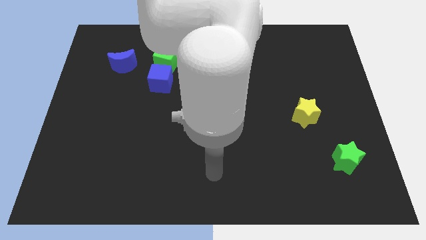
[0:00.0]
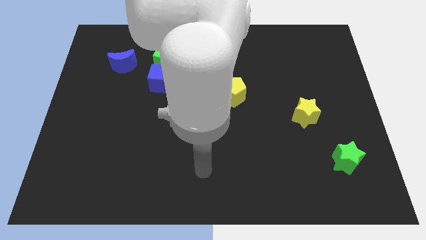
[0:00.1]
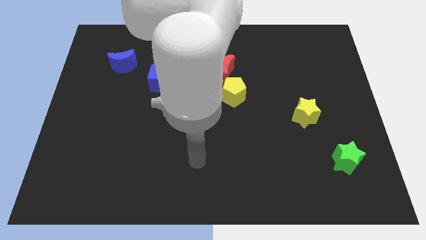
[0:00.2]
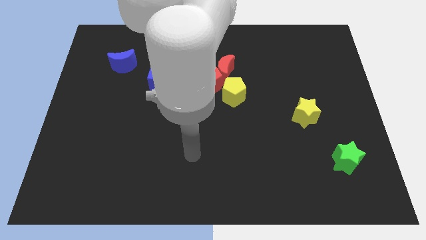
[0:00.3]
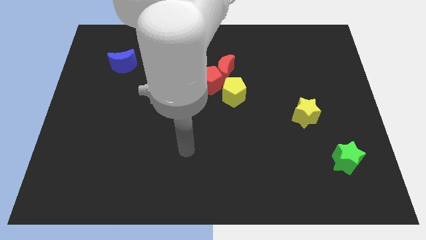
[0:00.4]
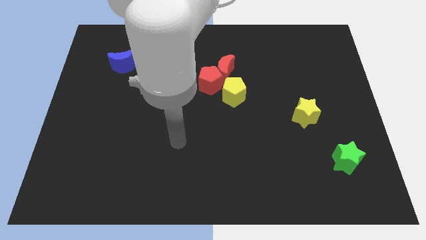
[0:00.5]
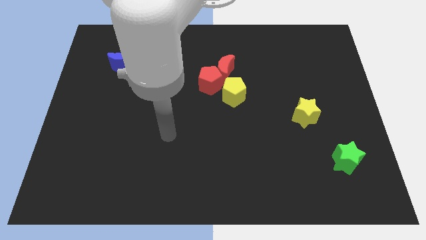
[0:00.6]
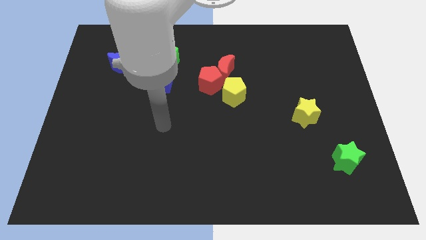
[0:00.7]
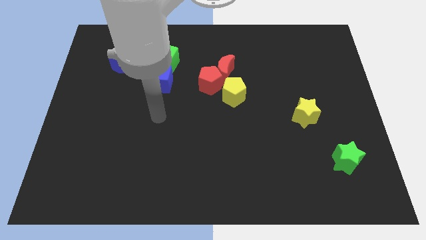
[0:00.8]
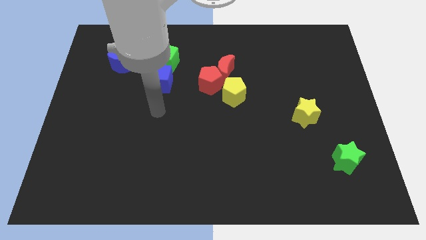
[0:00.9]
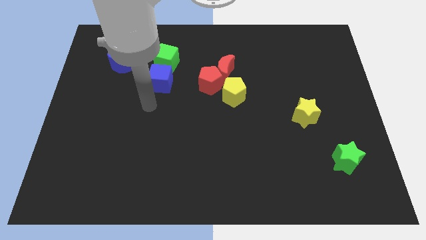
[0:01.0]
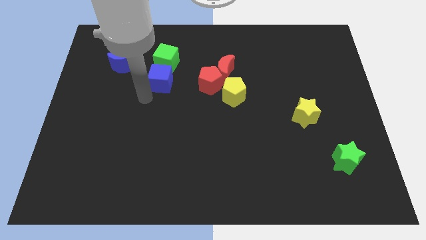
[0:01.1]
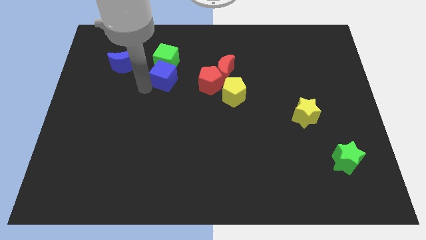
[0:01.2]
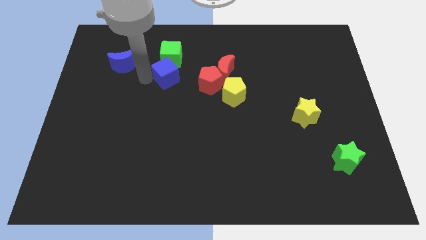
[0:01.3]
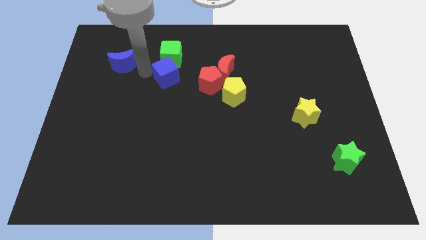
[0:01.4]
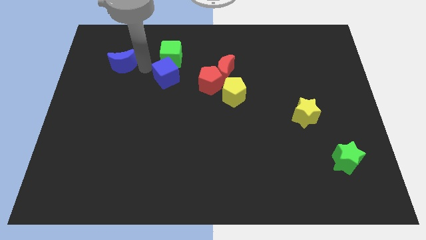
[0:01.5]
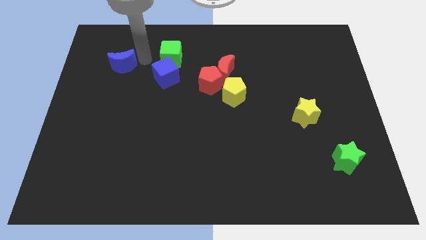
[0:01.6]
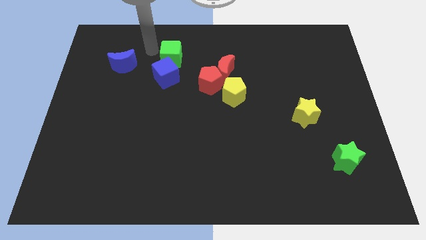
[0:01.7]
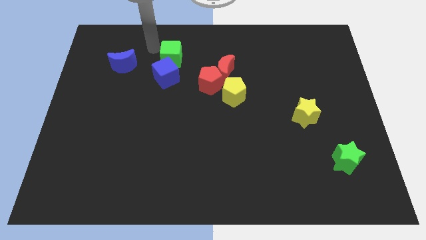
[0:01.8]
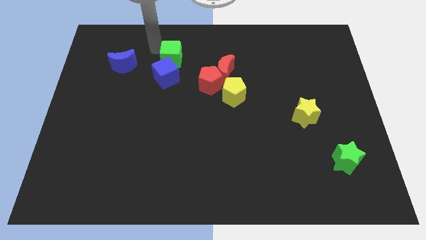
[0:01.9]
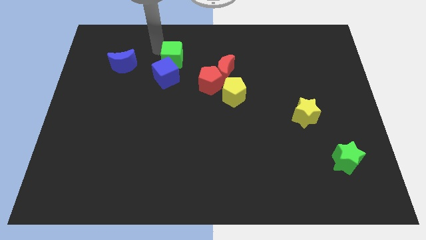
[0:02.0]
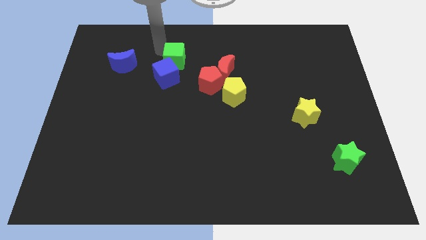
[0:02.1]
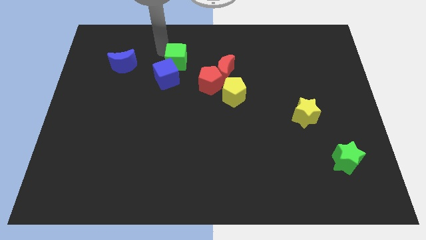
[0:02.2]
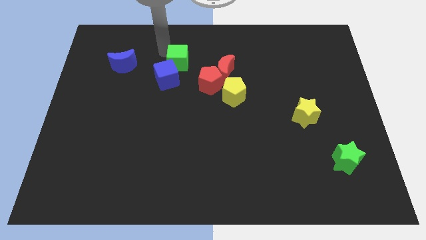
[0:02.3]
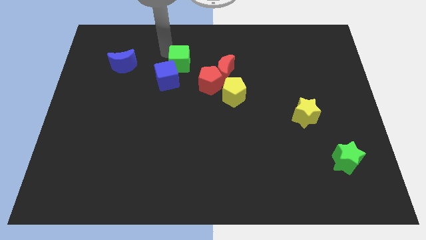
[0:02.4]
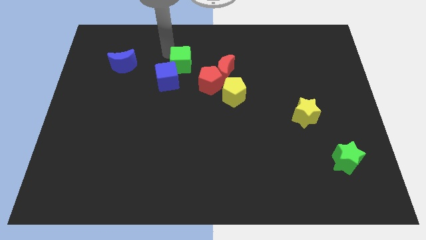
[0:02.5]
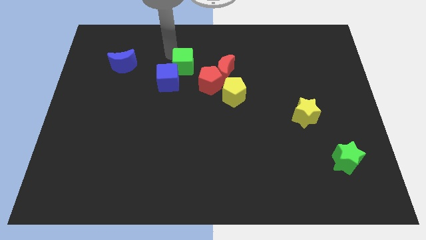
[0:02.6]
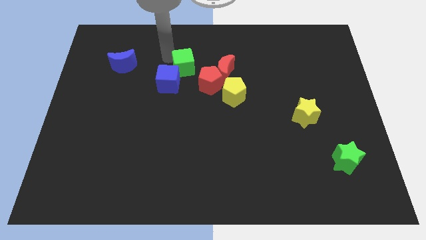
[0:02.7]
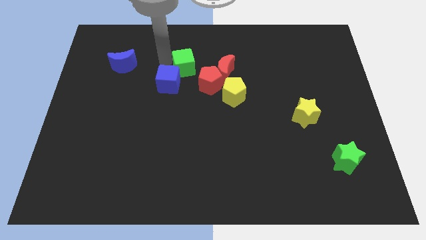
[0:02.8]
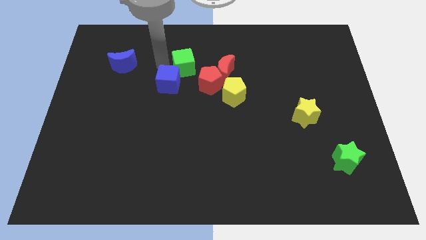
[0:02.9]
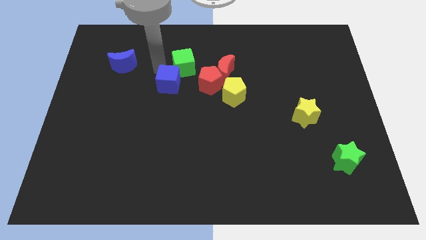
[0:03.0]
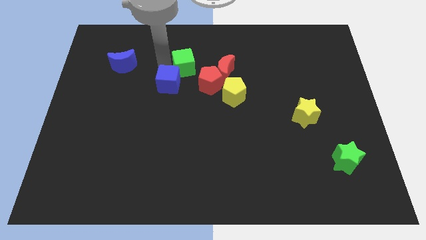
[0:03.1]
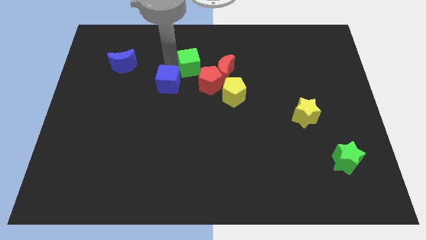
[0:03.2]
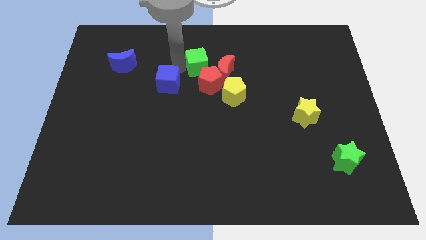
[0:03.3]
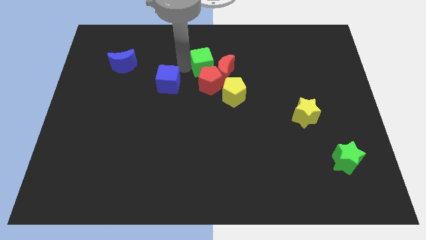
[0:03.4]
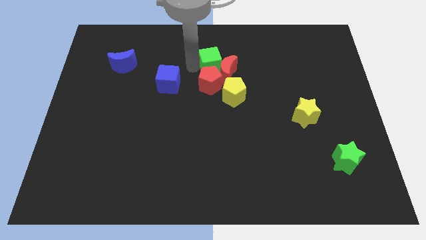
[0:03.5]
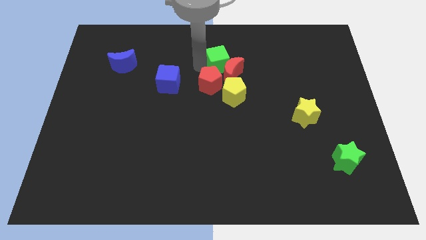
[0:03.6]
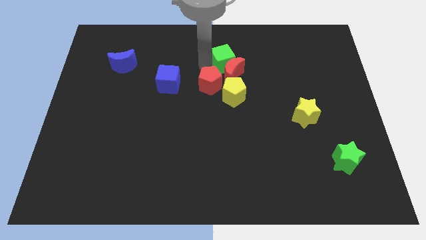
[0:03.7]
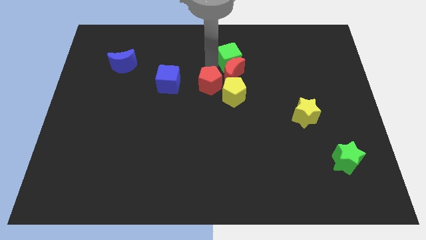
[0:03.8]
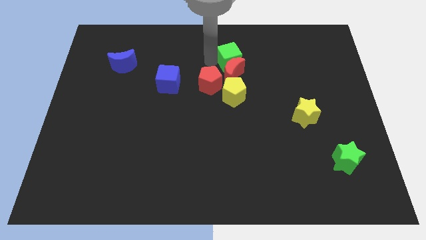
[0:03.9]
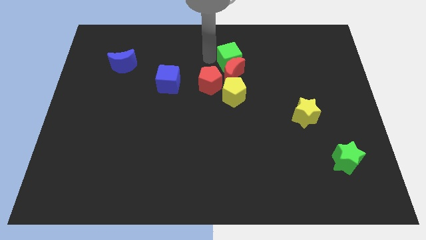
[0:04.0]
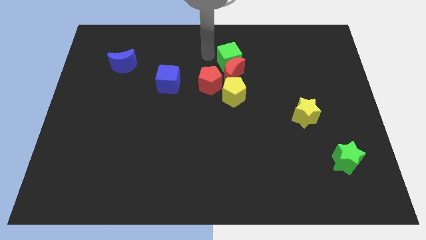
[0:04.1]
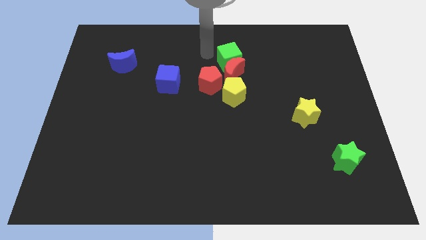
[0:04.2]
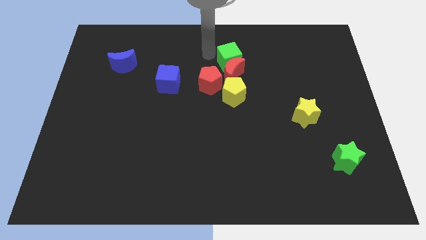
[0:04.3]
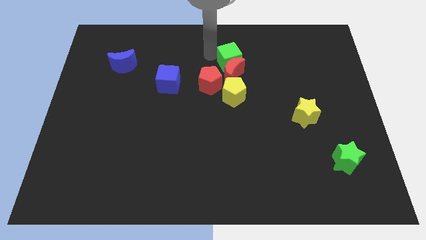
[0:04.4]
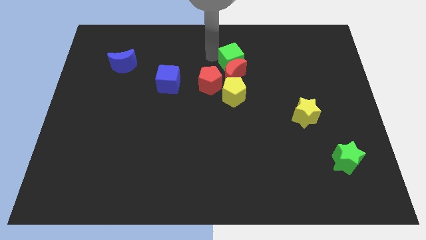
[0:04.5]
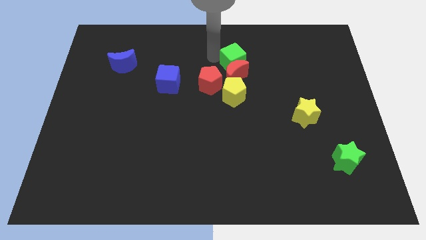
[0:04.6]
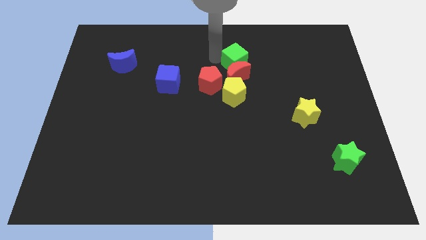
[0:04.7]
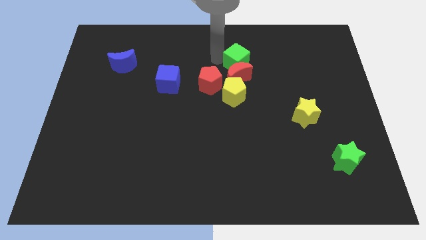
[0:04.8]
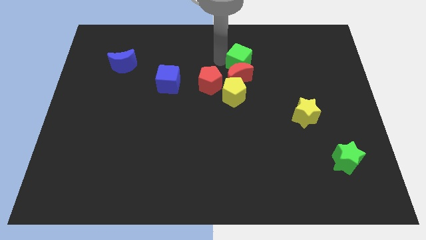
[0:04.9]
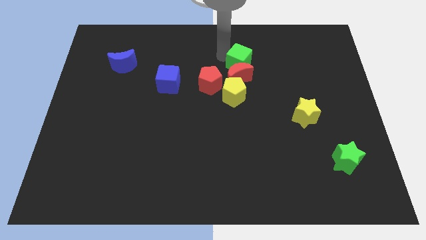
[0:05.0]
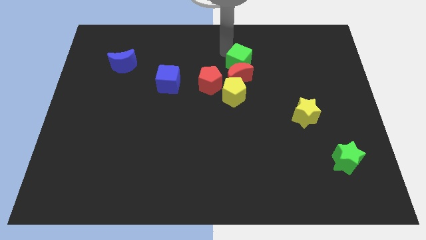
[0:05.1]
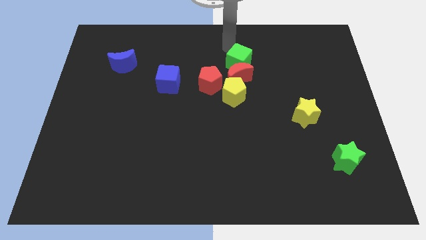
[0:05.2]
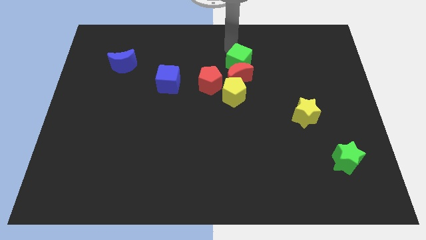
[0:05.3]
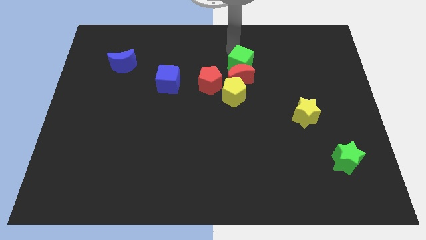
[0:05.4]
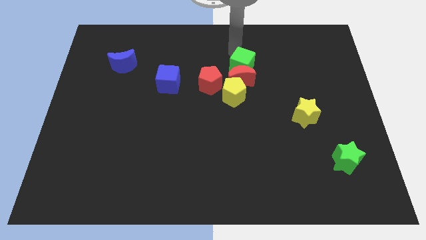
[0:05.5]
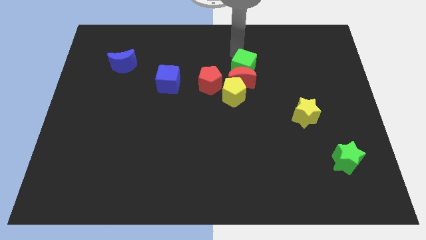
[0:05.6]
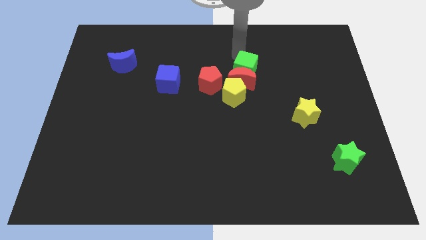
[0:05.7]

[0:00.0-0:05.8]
move the green cube right of the red pentagon

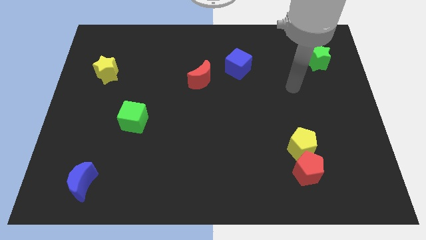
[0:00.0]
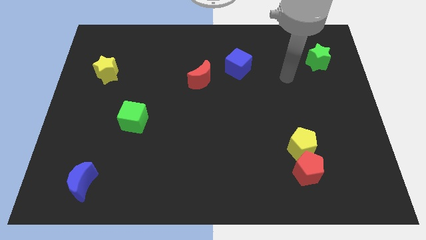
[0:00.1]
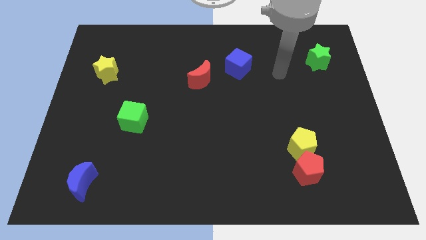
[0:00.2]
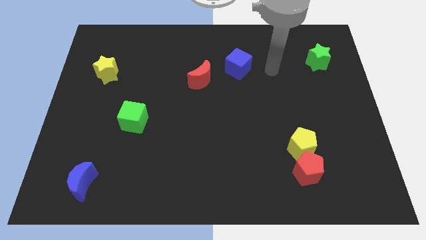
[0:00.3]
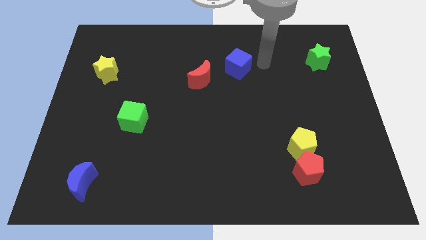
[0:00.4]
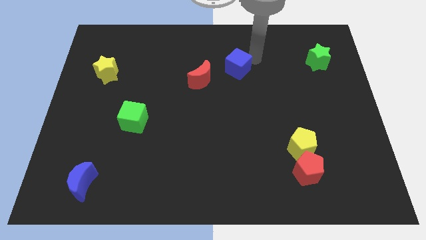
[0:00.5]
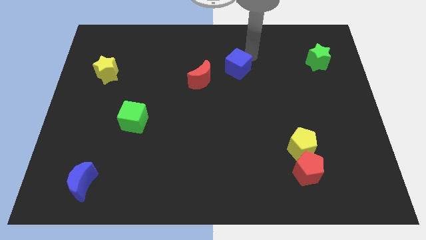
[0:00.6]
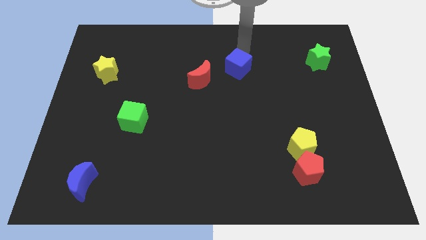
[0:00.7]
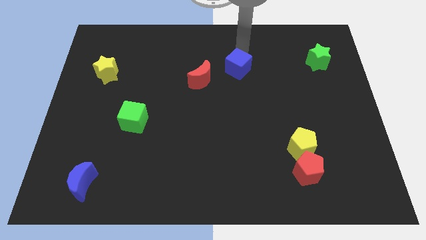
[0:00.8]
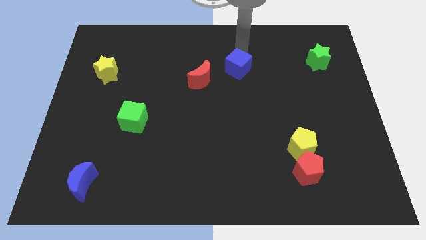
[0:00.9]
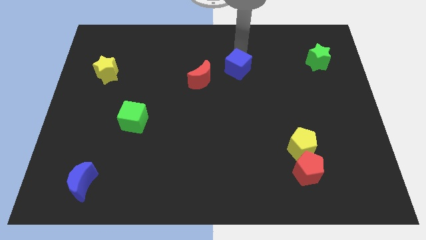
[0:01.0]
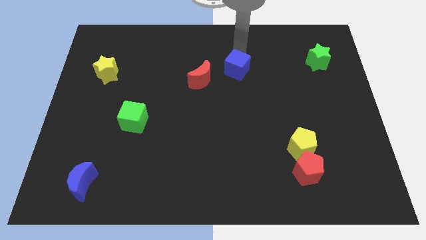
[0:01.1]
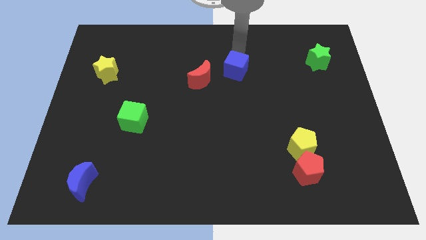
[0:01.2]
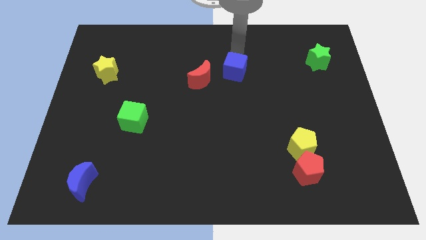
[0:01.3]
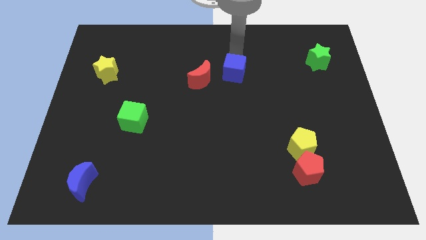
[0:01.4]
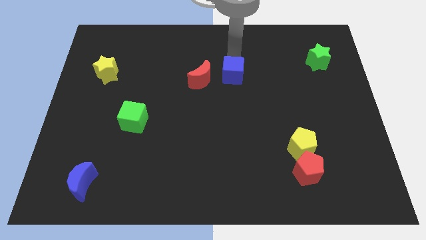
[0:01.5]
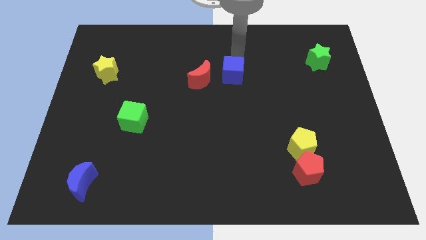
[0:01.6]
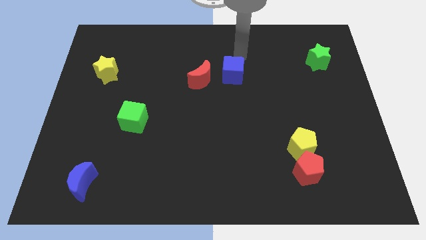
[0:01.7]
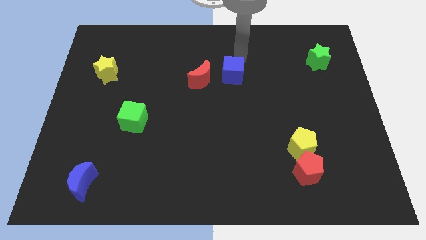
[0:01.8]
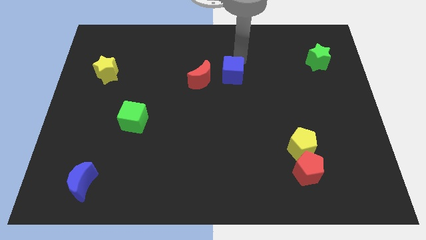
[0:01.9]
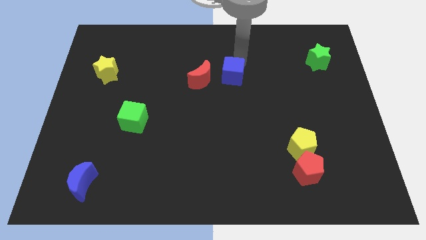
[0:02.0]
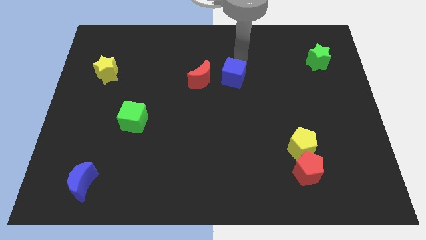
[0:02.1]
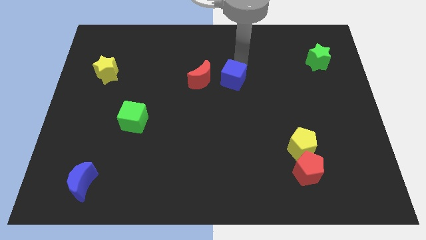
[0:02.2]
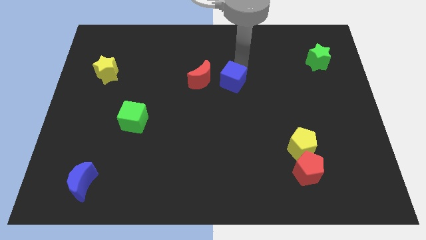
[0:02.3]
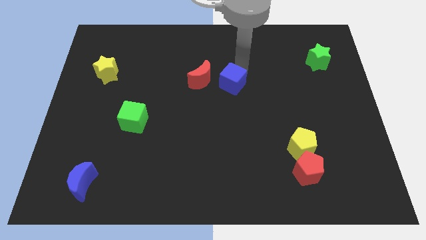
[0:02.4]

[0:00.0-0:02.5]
slide the blue cube diagonally down and to the right of the red moon
